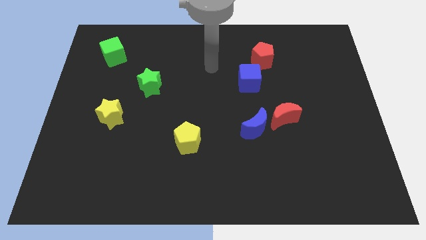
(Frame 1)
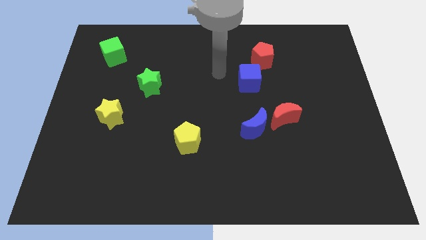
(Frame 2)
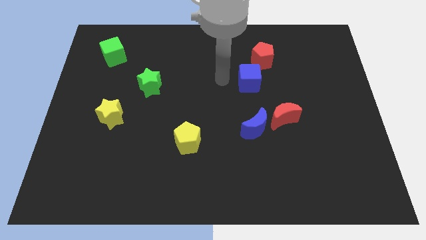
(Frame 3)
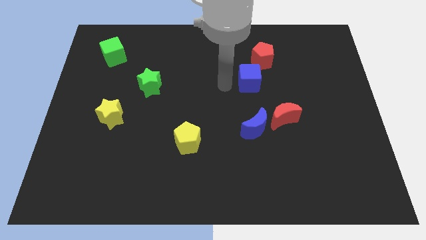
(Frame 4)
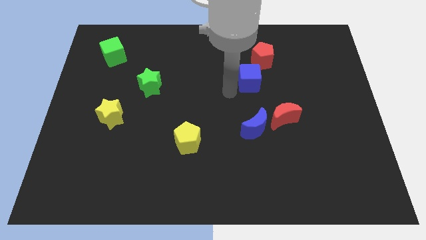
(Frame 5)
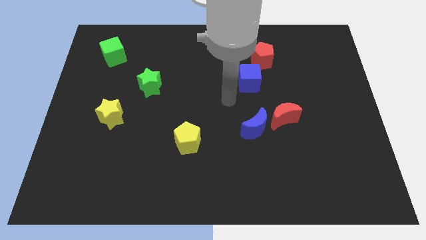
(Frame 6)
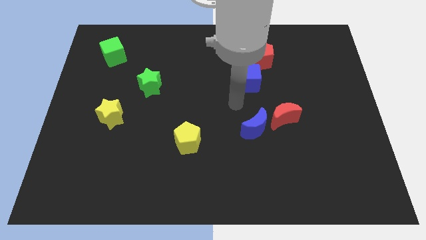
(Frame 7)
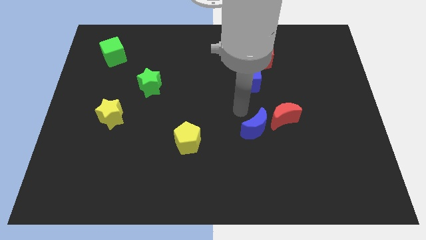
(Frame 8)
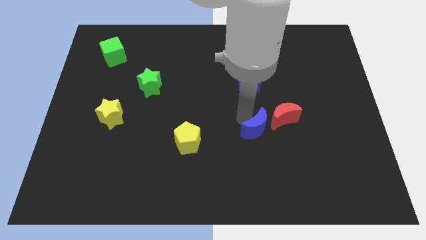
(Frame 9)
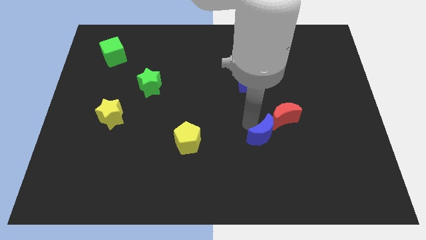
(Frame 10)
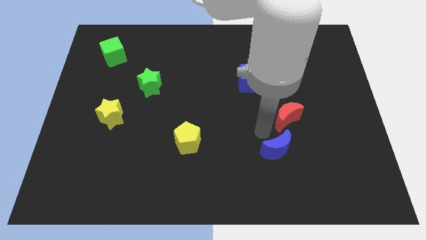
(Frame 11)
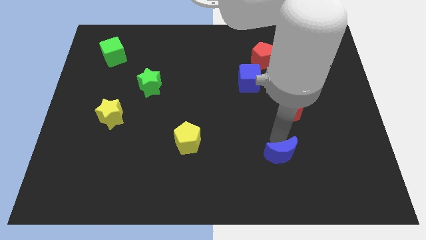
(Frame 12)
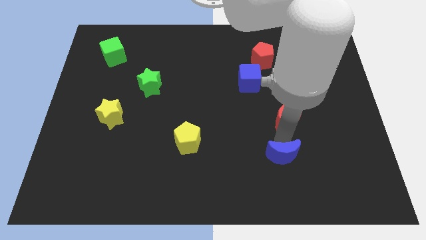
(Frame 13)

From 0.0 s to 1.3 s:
separate the red moon from the blue moon

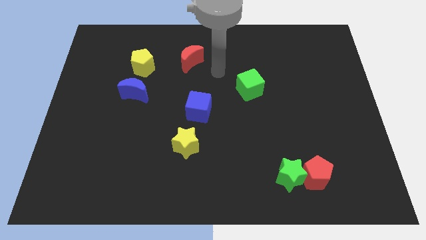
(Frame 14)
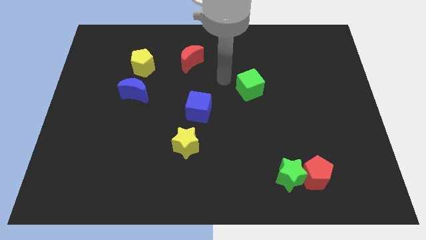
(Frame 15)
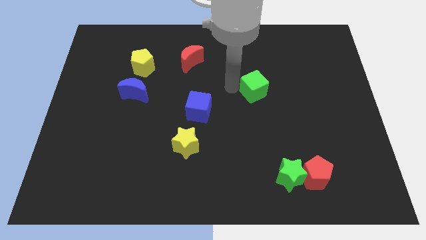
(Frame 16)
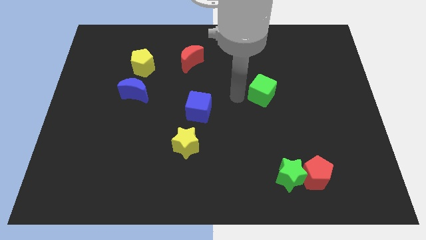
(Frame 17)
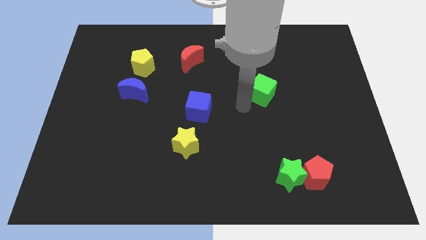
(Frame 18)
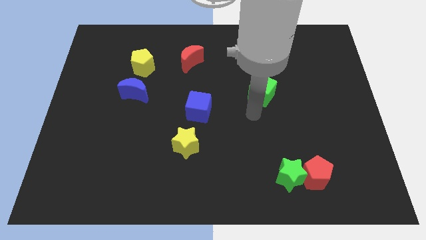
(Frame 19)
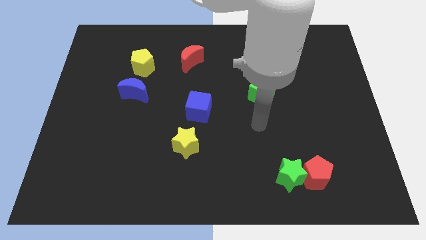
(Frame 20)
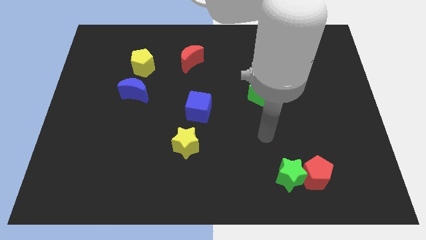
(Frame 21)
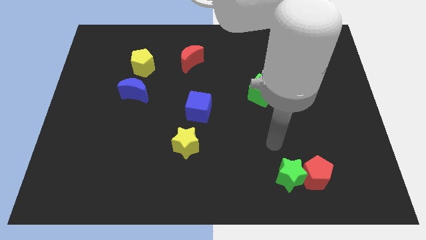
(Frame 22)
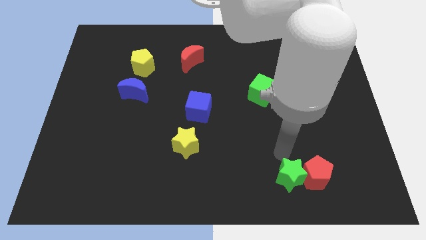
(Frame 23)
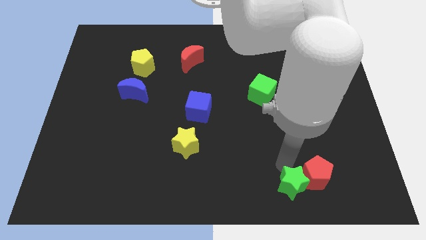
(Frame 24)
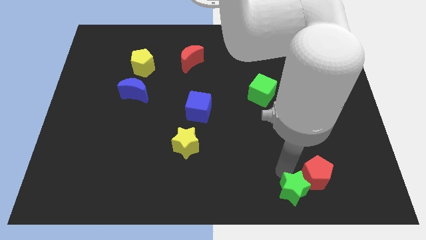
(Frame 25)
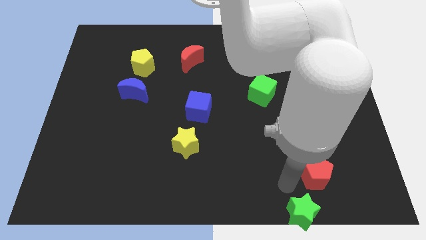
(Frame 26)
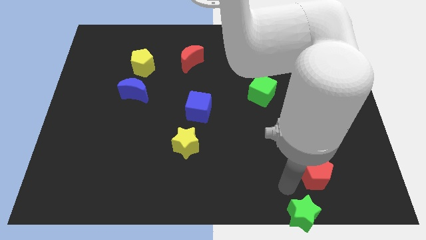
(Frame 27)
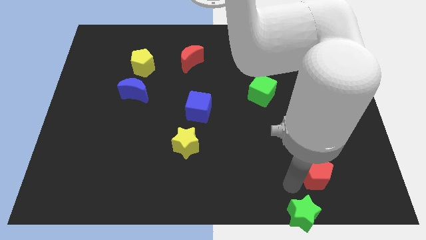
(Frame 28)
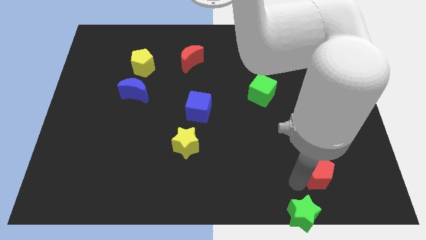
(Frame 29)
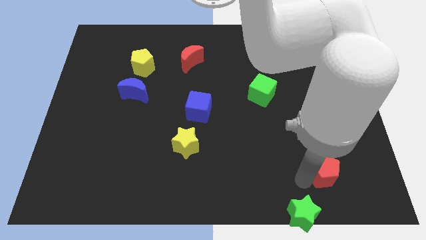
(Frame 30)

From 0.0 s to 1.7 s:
pull the red pentagon apart from the green star

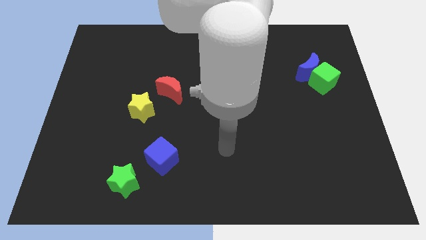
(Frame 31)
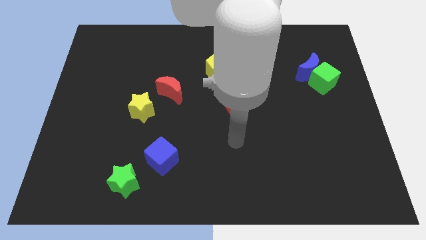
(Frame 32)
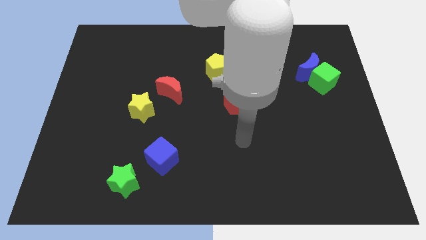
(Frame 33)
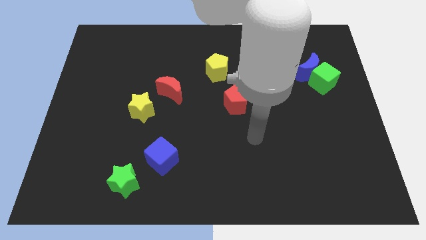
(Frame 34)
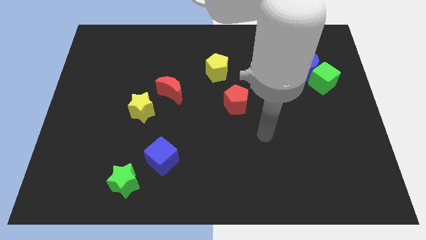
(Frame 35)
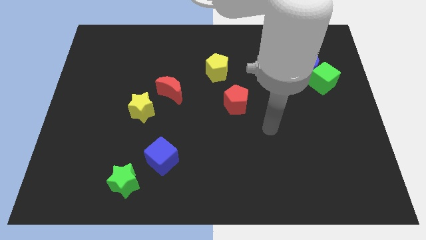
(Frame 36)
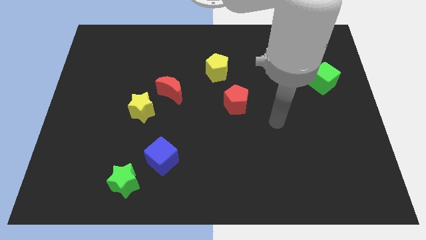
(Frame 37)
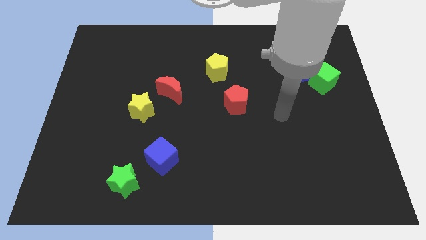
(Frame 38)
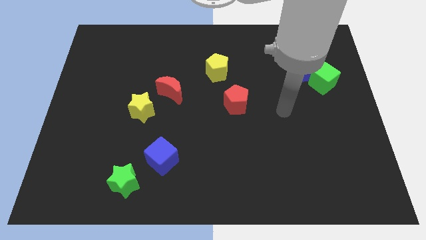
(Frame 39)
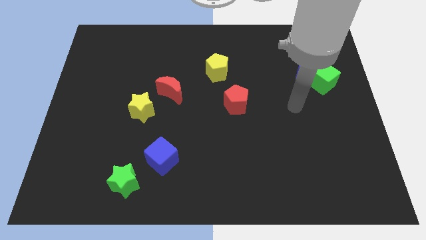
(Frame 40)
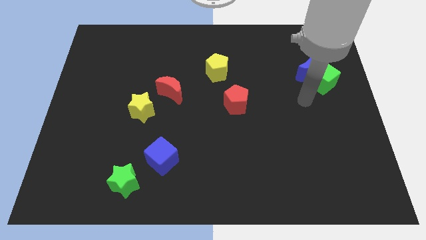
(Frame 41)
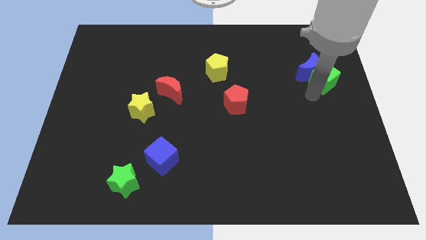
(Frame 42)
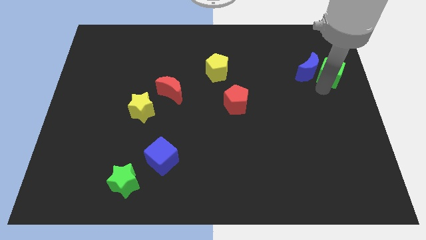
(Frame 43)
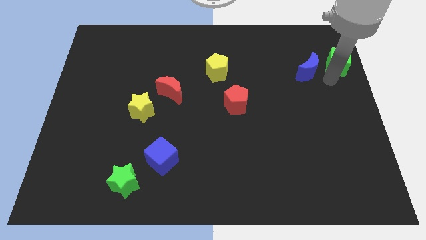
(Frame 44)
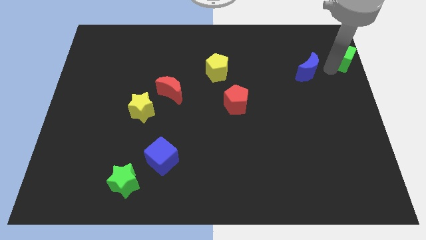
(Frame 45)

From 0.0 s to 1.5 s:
separate the blue moon from the green cube

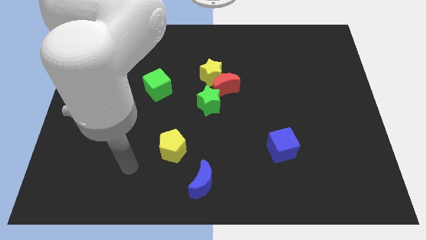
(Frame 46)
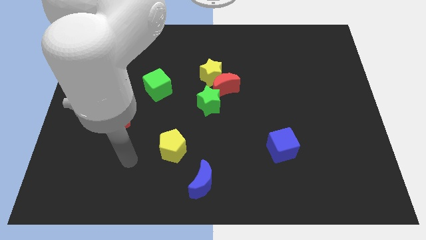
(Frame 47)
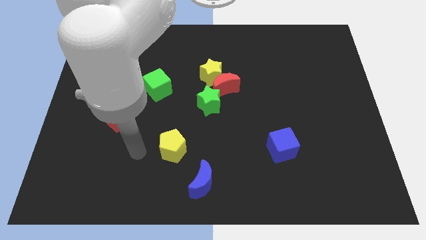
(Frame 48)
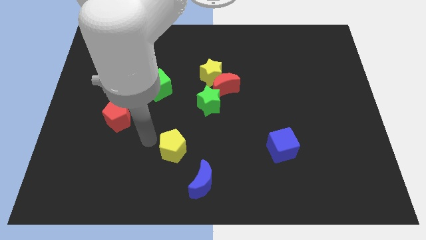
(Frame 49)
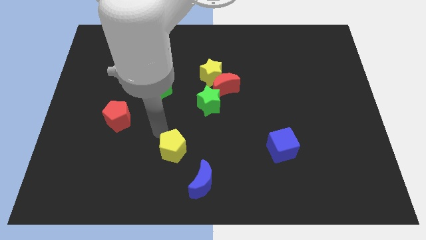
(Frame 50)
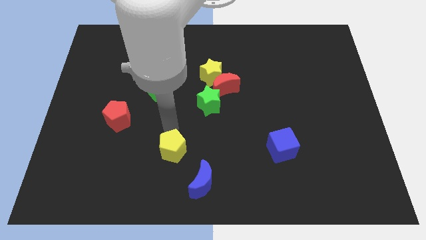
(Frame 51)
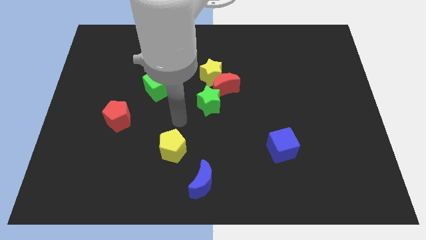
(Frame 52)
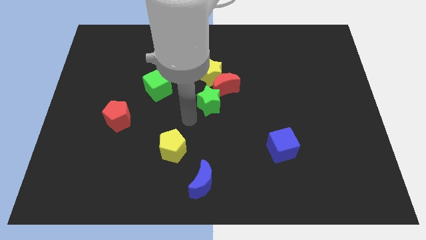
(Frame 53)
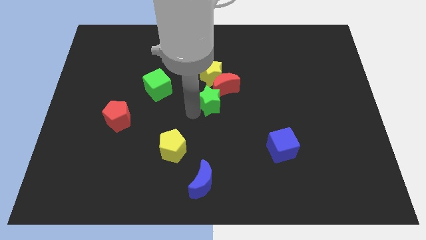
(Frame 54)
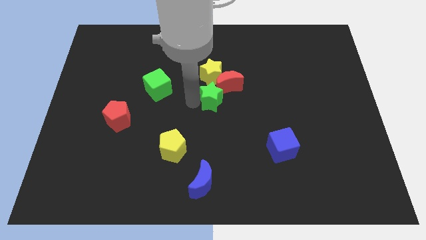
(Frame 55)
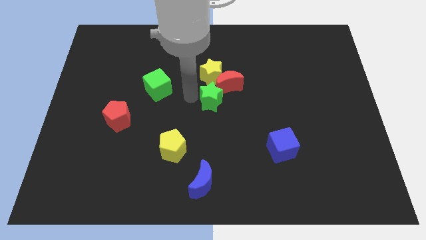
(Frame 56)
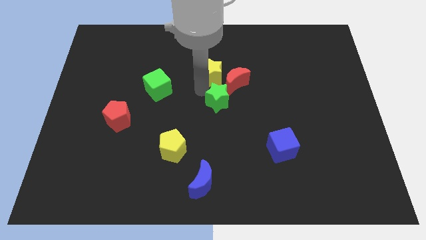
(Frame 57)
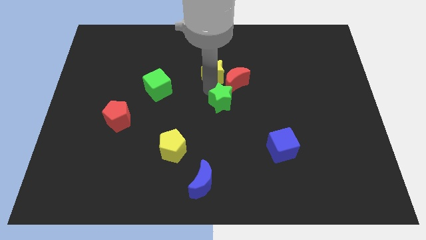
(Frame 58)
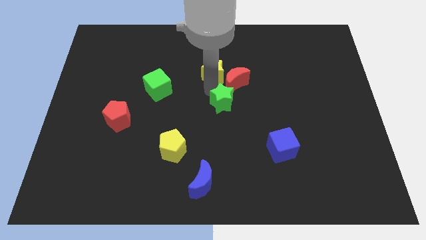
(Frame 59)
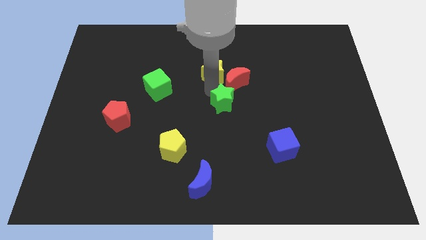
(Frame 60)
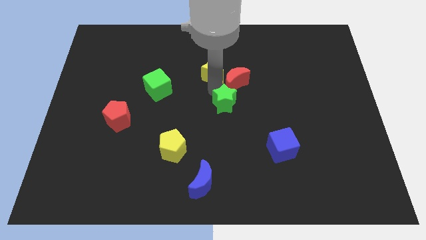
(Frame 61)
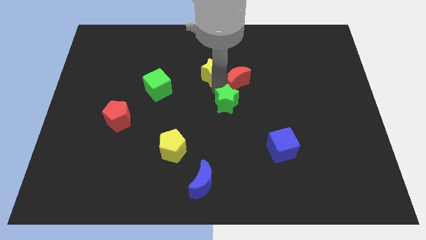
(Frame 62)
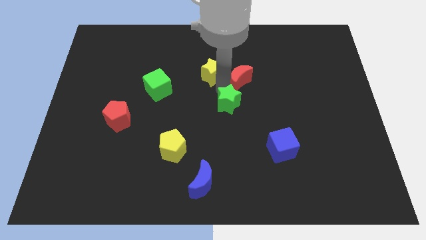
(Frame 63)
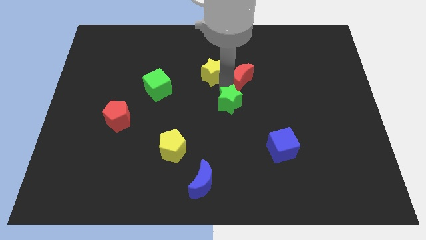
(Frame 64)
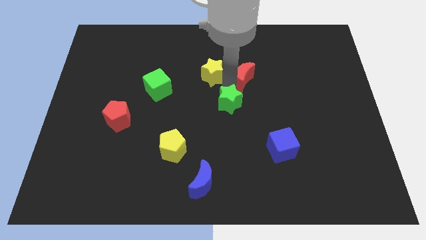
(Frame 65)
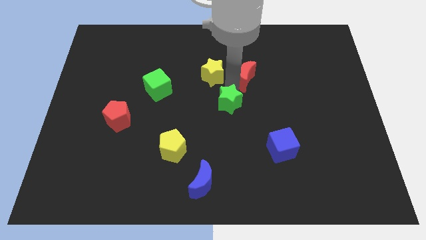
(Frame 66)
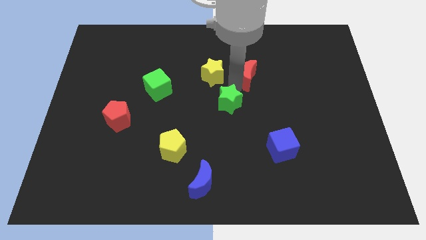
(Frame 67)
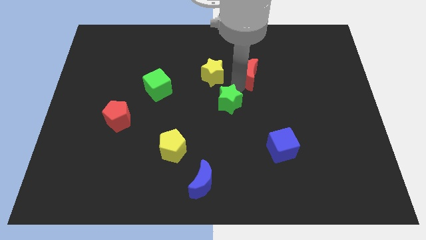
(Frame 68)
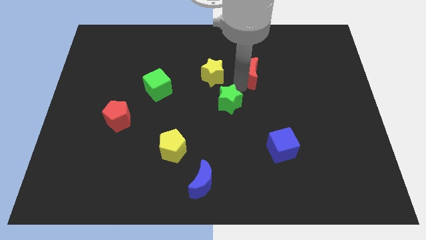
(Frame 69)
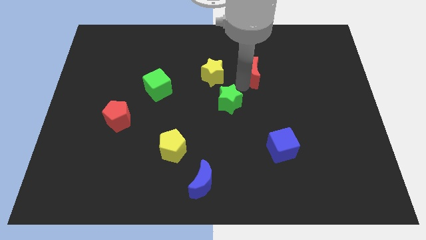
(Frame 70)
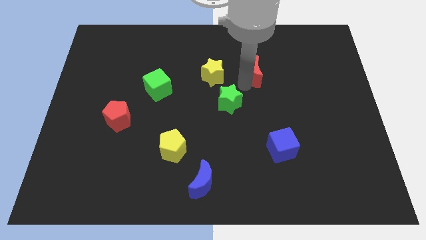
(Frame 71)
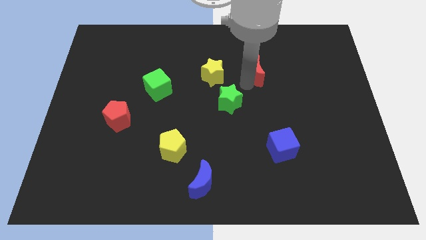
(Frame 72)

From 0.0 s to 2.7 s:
pull the red moon apart from the yellow star and green star

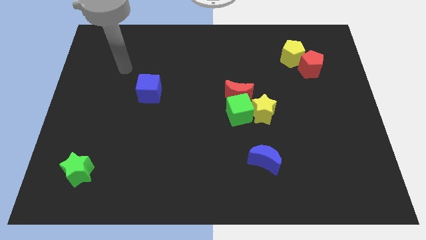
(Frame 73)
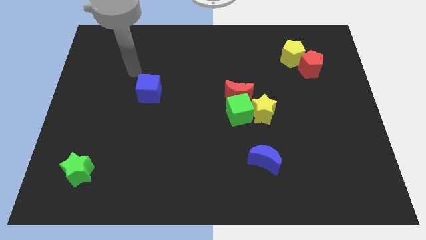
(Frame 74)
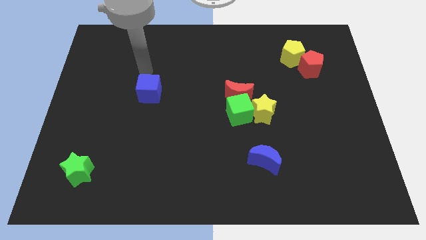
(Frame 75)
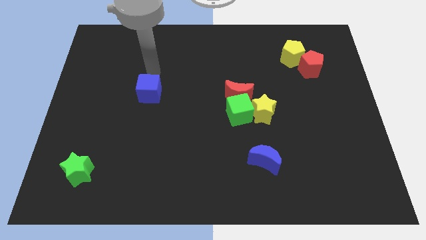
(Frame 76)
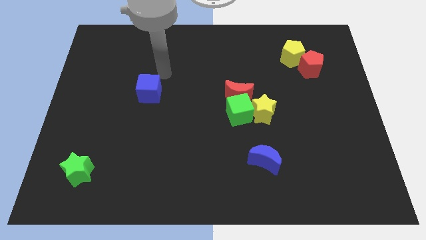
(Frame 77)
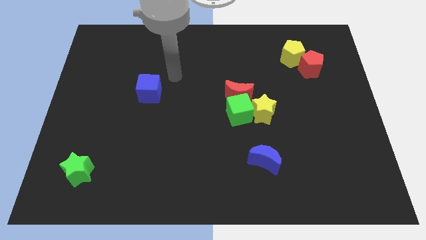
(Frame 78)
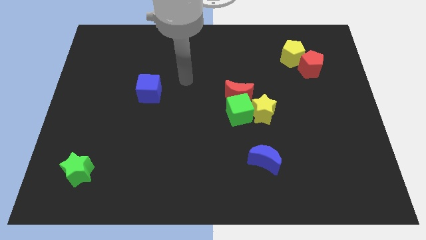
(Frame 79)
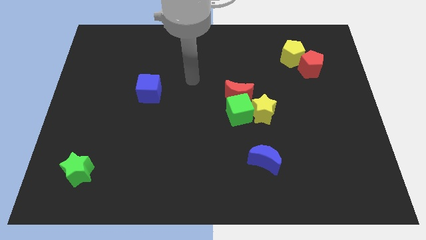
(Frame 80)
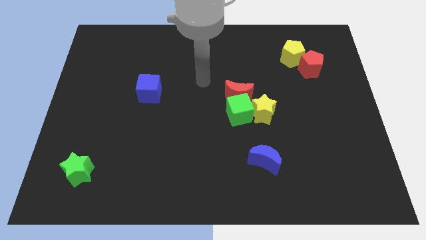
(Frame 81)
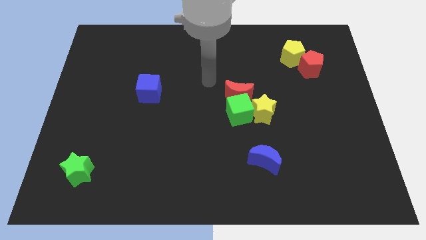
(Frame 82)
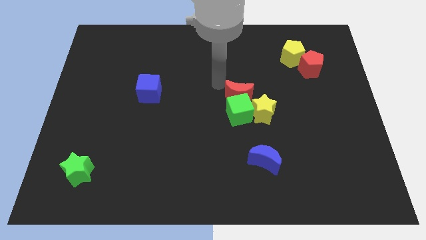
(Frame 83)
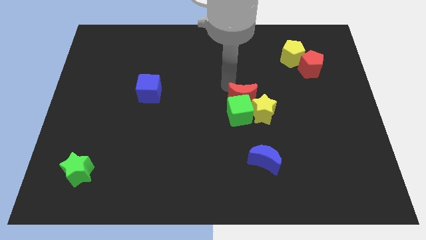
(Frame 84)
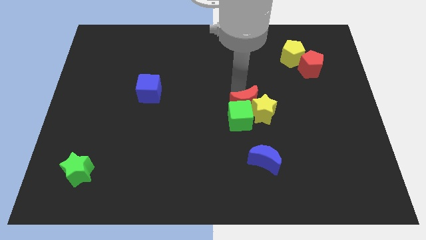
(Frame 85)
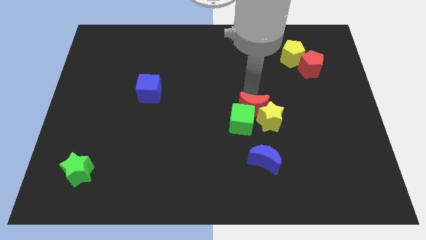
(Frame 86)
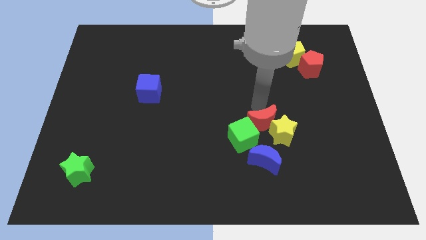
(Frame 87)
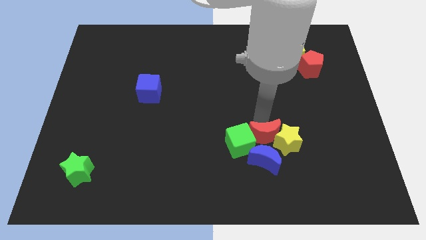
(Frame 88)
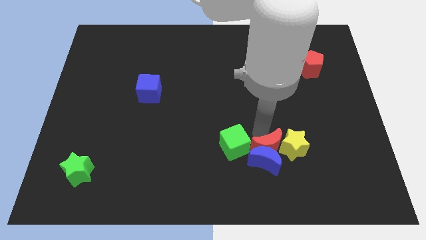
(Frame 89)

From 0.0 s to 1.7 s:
separate the green cube from the red moon and yellow star

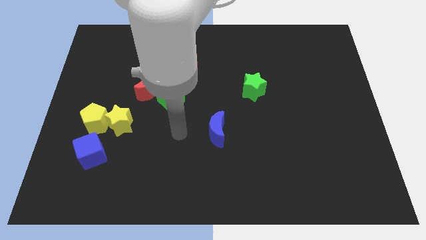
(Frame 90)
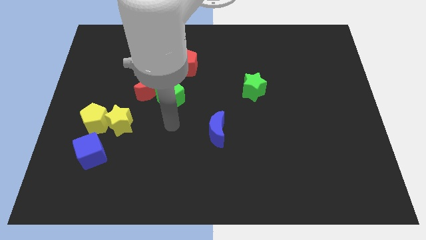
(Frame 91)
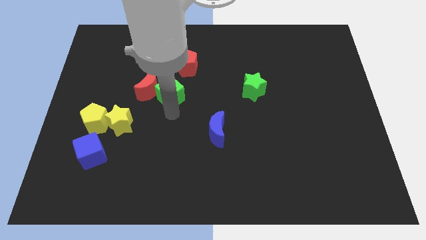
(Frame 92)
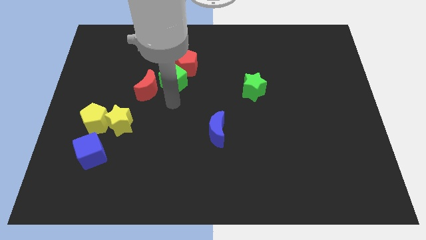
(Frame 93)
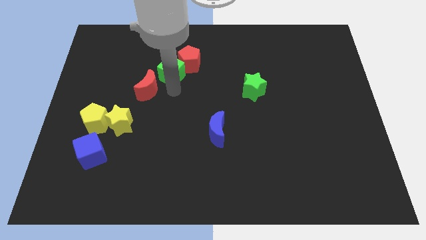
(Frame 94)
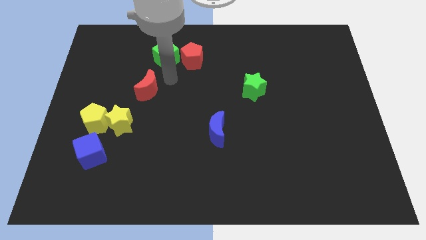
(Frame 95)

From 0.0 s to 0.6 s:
move the red moon away from the green cube
